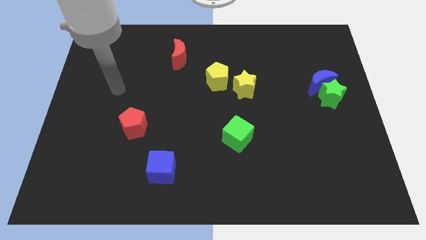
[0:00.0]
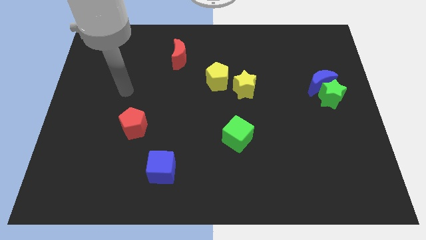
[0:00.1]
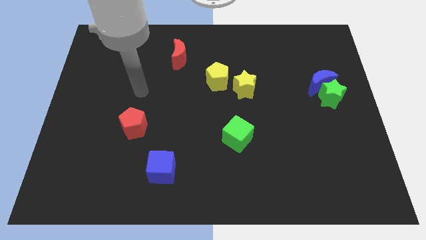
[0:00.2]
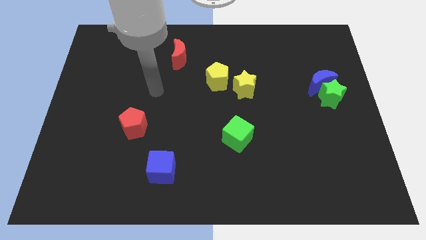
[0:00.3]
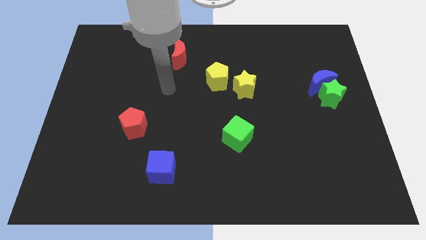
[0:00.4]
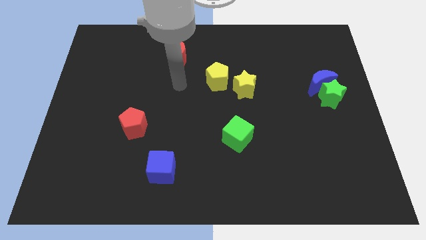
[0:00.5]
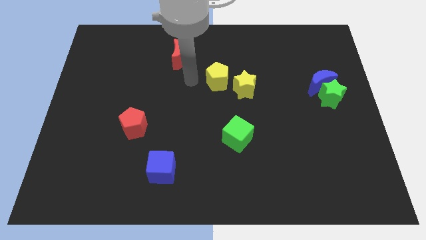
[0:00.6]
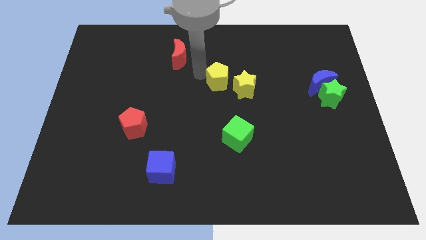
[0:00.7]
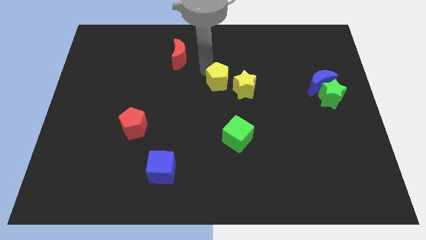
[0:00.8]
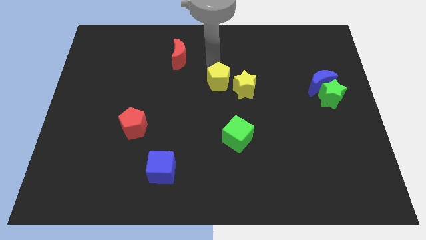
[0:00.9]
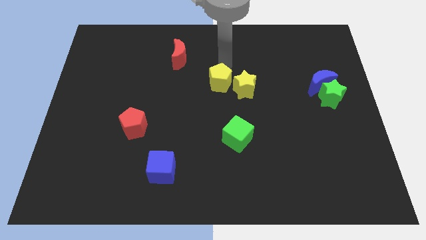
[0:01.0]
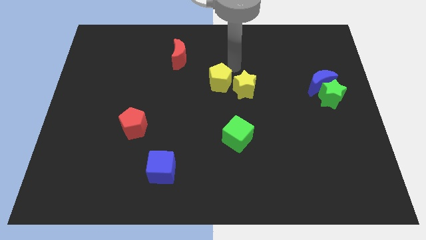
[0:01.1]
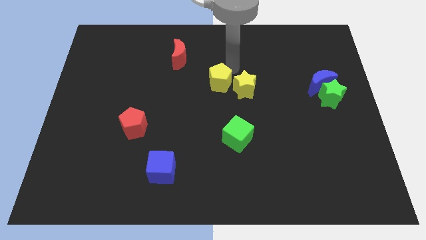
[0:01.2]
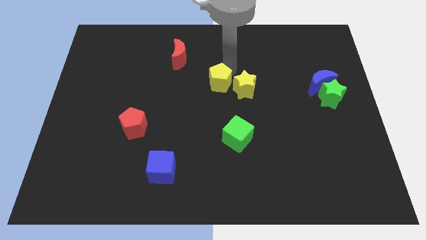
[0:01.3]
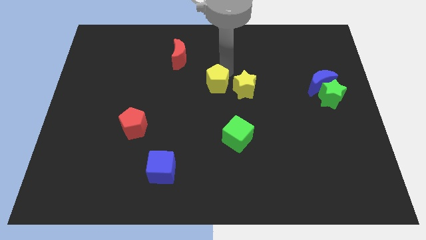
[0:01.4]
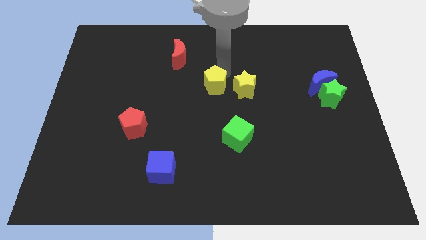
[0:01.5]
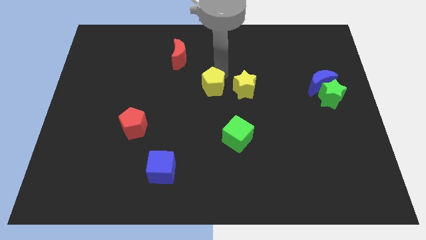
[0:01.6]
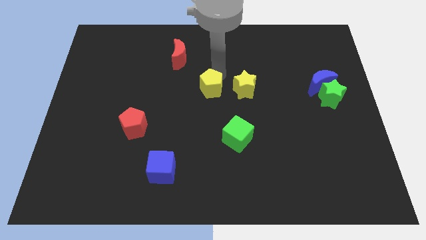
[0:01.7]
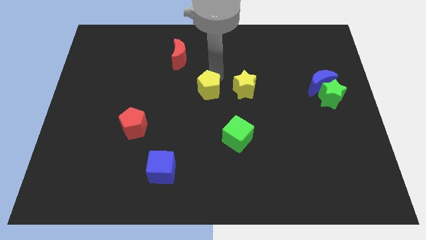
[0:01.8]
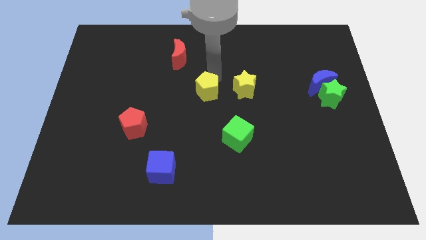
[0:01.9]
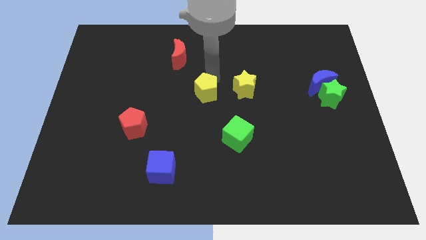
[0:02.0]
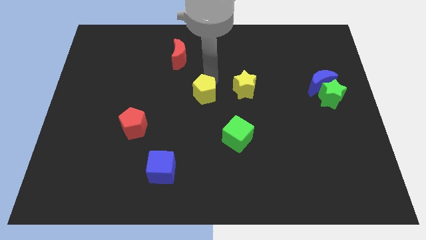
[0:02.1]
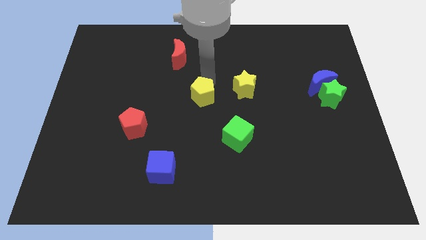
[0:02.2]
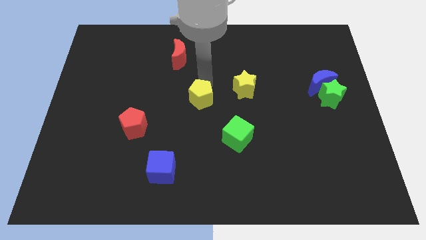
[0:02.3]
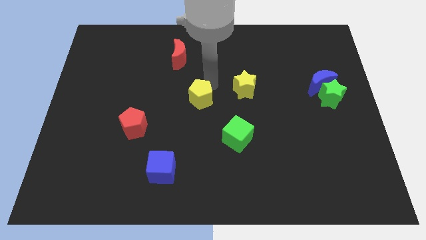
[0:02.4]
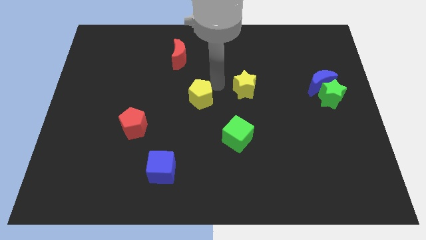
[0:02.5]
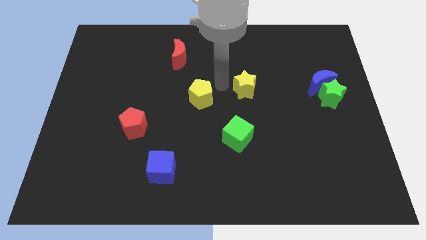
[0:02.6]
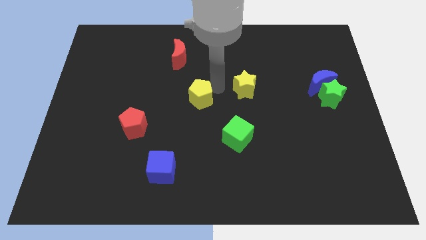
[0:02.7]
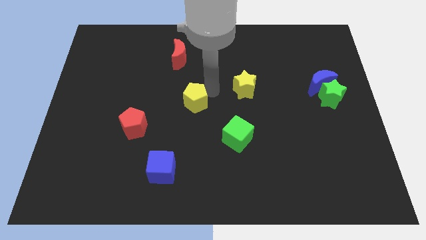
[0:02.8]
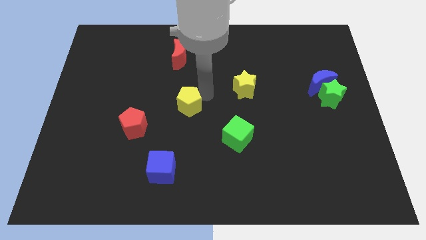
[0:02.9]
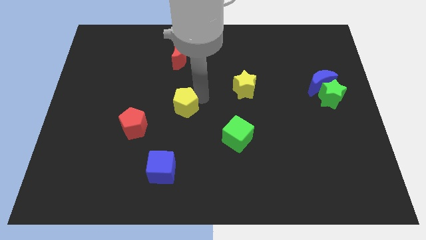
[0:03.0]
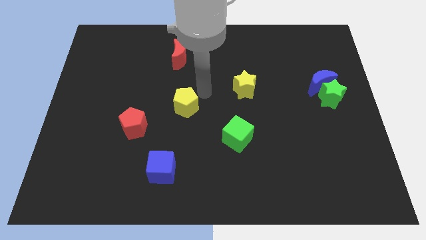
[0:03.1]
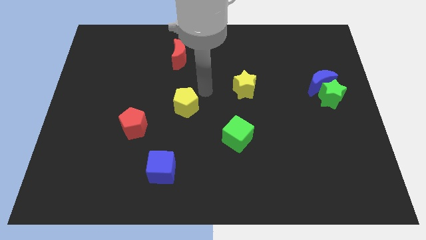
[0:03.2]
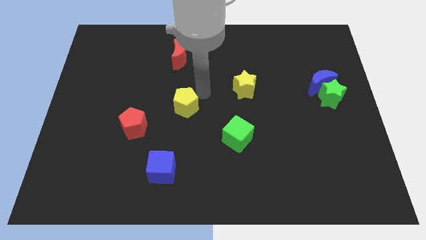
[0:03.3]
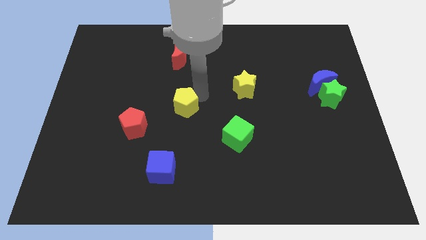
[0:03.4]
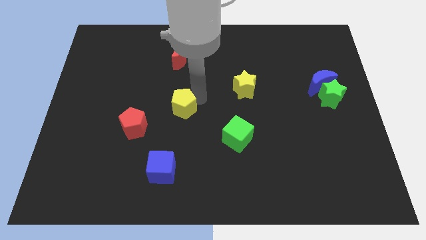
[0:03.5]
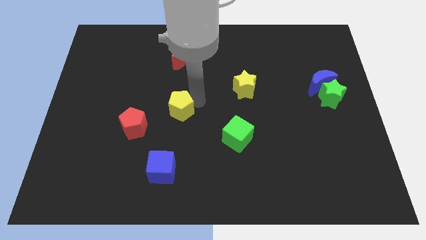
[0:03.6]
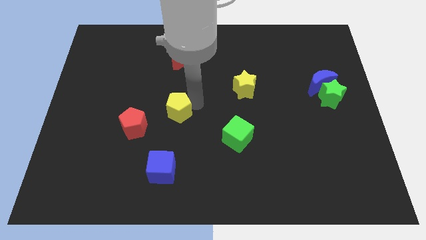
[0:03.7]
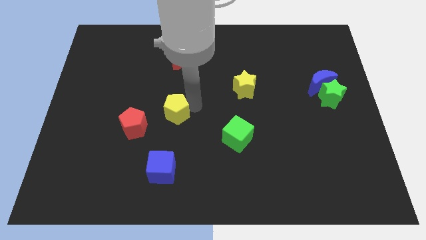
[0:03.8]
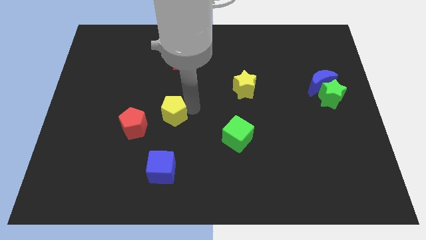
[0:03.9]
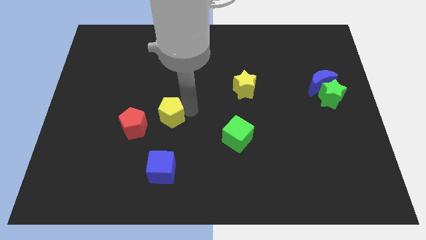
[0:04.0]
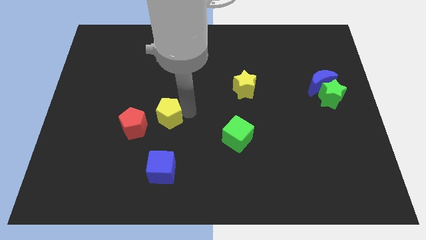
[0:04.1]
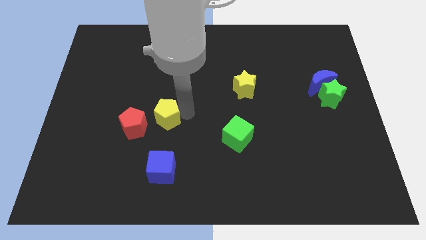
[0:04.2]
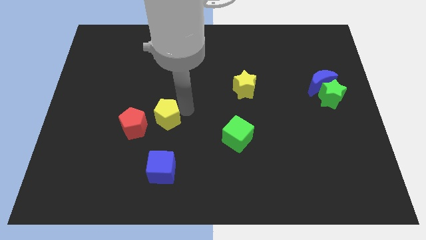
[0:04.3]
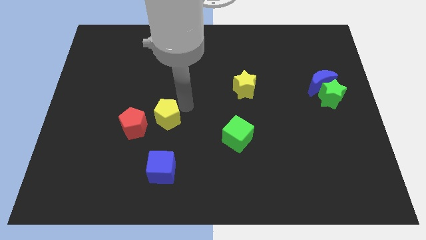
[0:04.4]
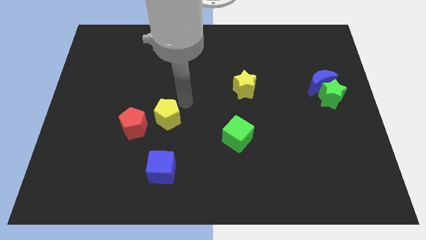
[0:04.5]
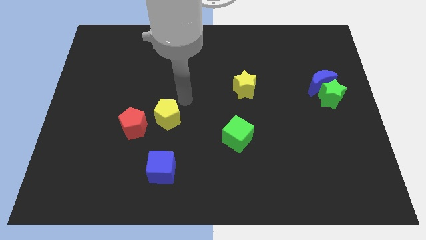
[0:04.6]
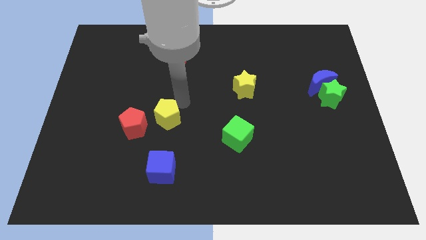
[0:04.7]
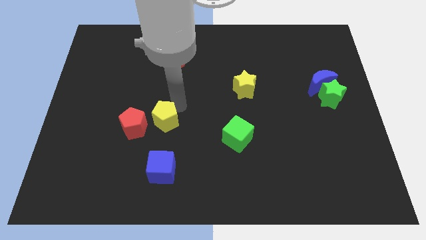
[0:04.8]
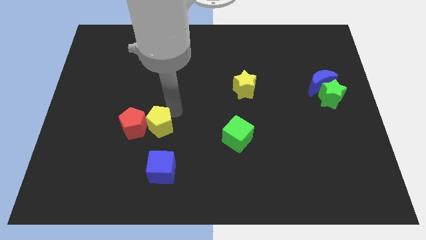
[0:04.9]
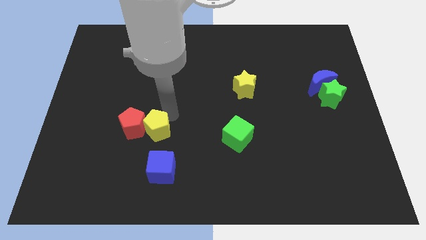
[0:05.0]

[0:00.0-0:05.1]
slide the yellow pentagon down and then left

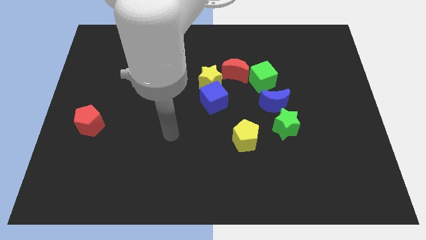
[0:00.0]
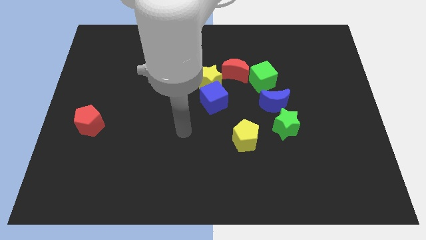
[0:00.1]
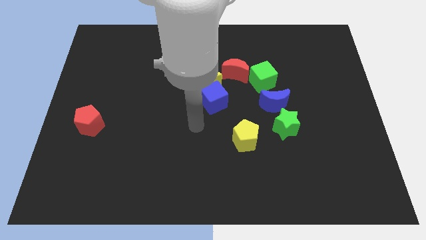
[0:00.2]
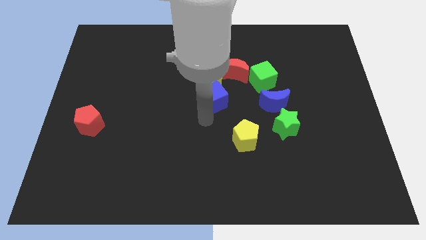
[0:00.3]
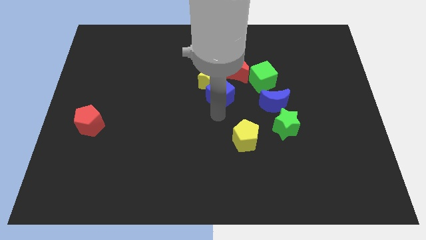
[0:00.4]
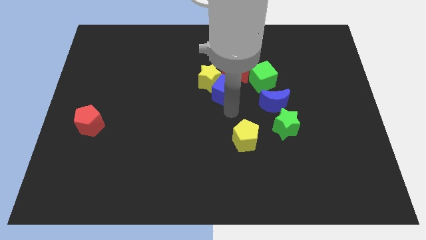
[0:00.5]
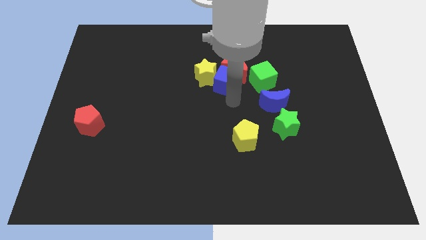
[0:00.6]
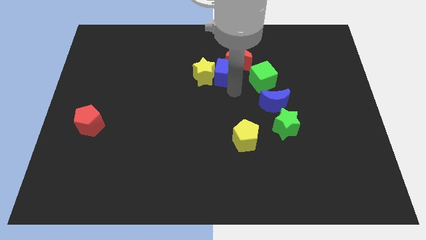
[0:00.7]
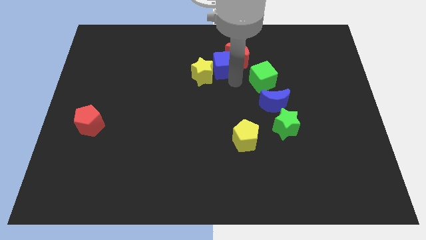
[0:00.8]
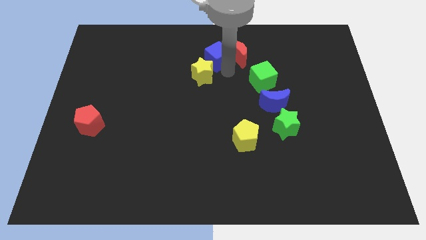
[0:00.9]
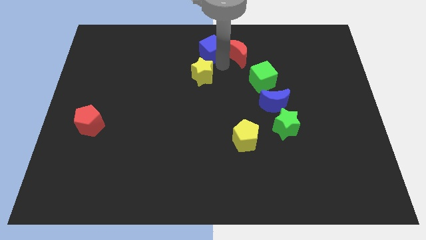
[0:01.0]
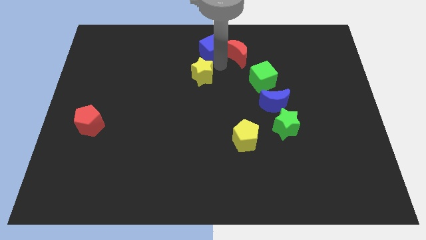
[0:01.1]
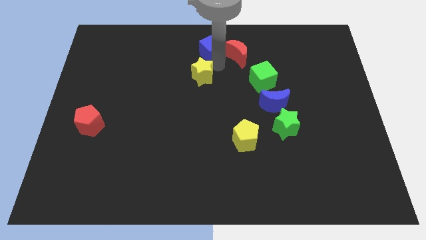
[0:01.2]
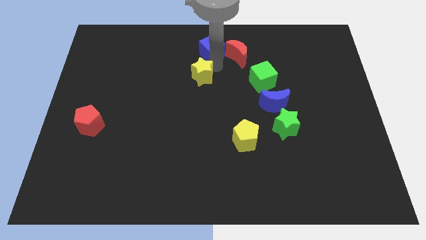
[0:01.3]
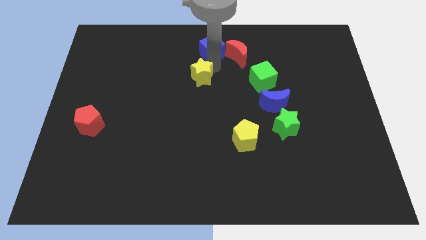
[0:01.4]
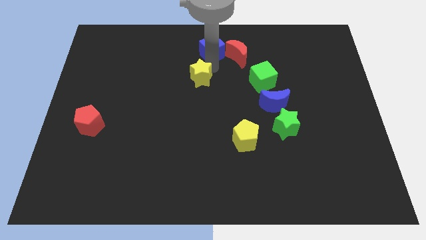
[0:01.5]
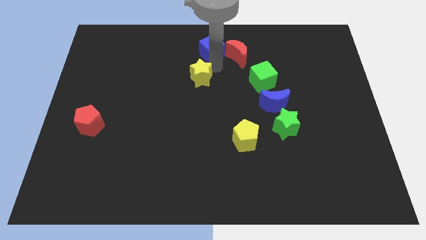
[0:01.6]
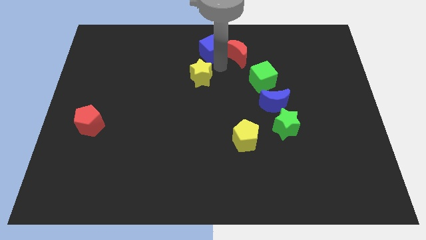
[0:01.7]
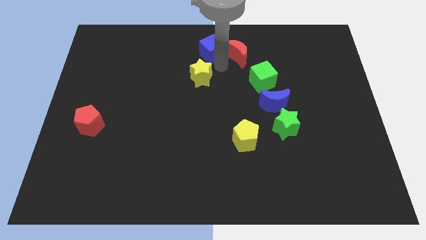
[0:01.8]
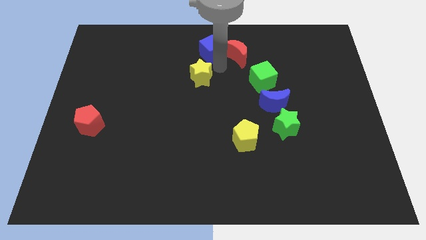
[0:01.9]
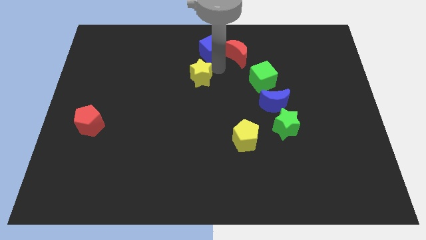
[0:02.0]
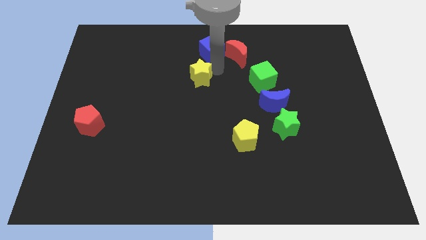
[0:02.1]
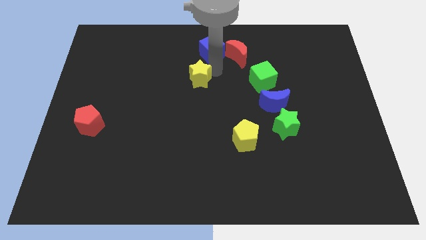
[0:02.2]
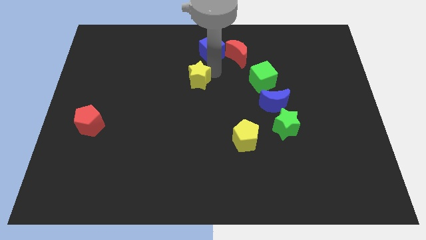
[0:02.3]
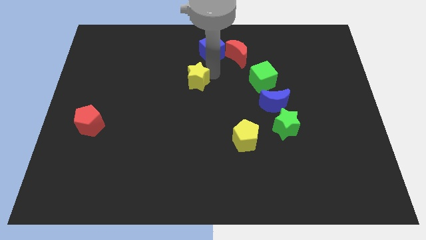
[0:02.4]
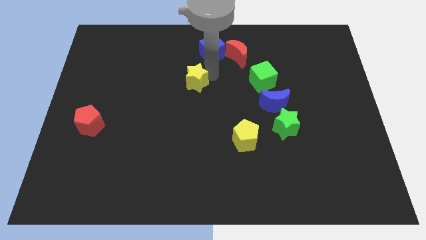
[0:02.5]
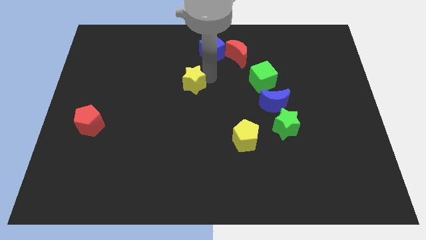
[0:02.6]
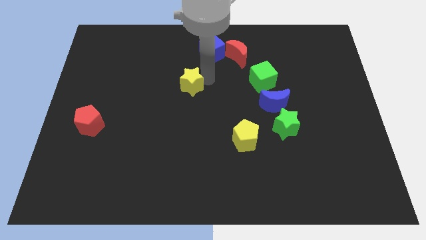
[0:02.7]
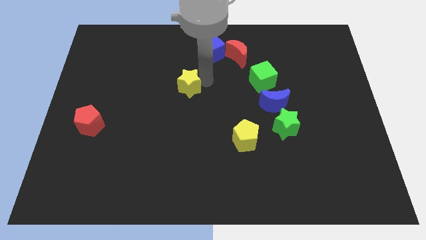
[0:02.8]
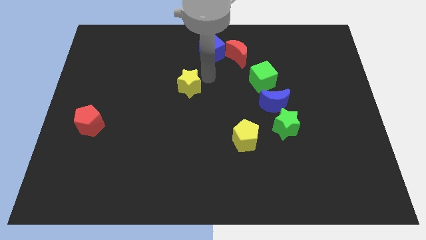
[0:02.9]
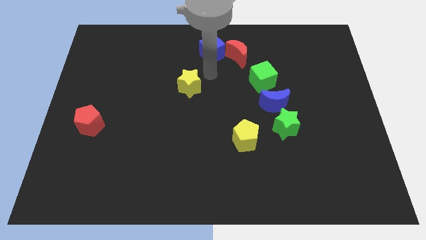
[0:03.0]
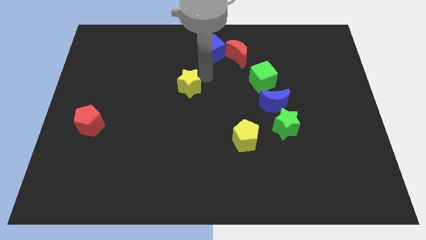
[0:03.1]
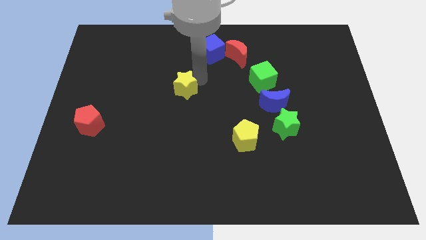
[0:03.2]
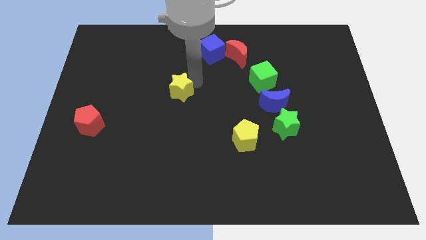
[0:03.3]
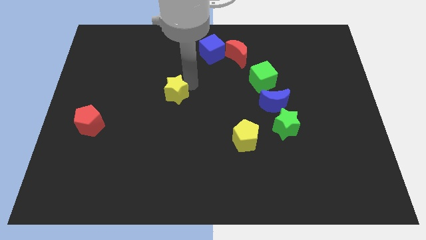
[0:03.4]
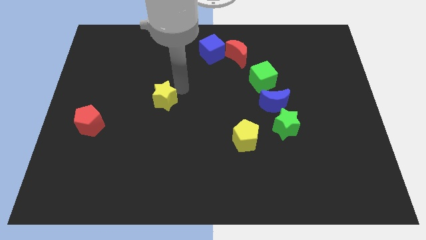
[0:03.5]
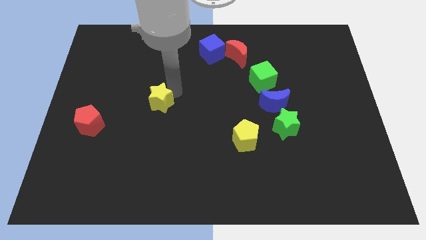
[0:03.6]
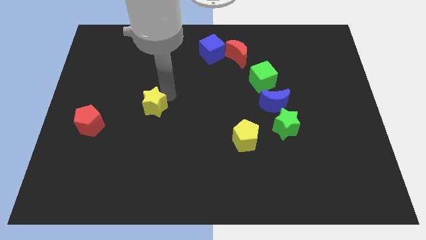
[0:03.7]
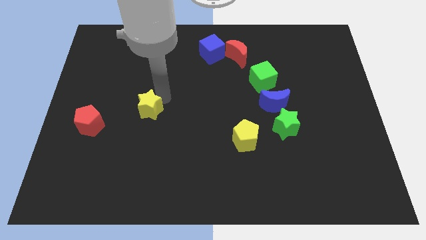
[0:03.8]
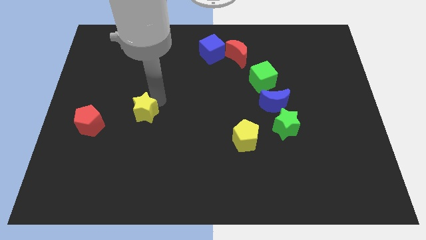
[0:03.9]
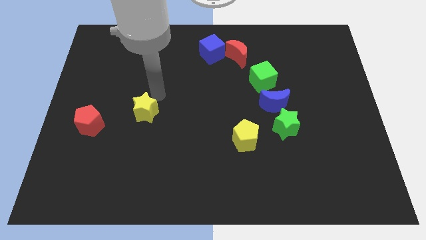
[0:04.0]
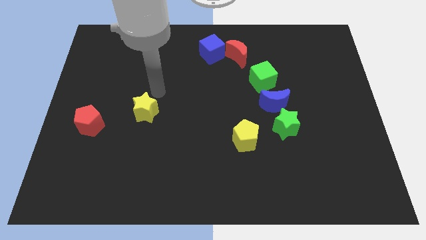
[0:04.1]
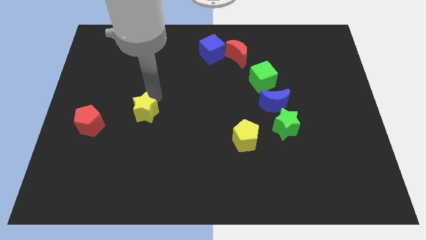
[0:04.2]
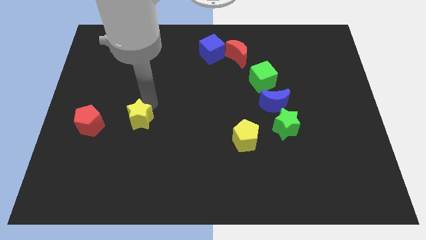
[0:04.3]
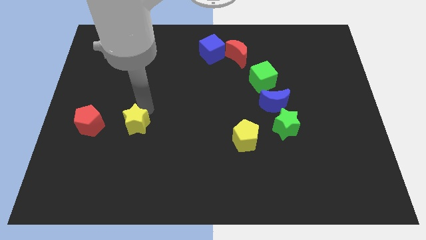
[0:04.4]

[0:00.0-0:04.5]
move the yellow star diagonally down and left
